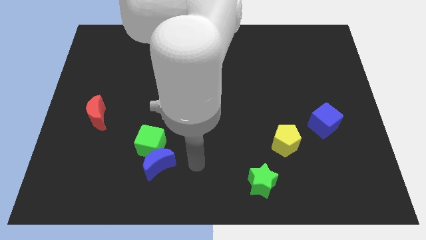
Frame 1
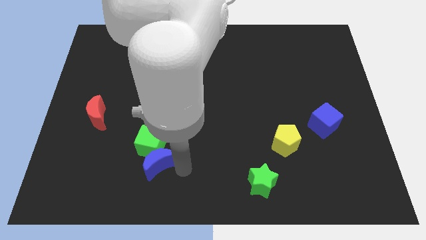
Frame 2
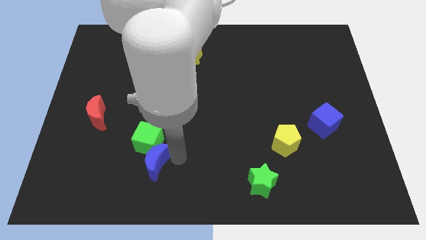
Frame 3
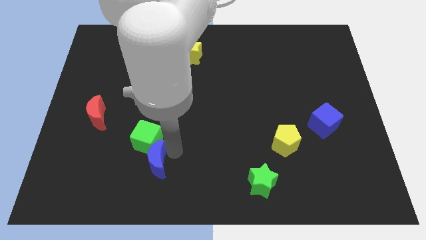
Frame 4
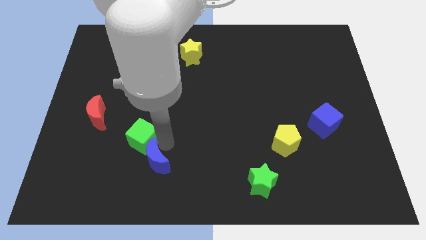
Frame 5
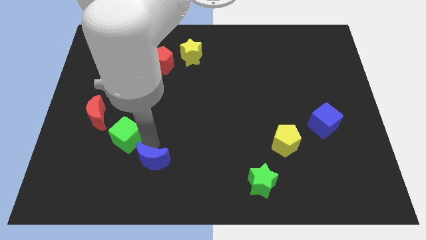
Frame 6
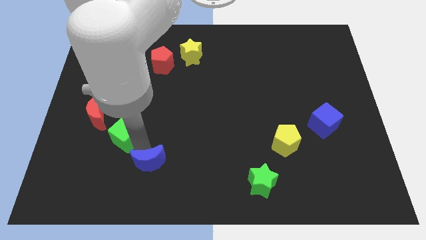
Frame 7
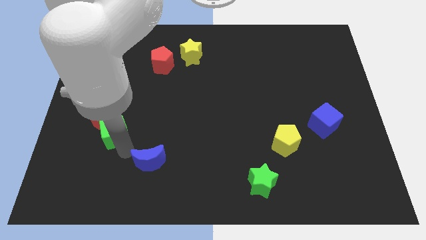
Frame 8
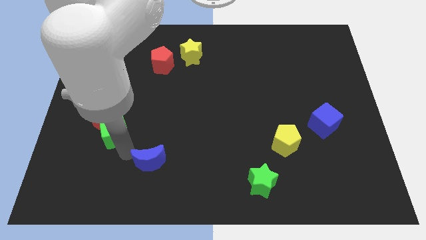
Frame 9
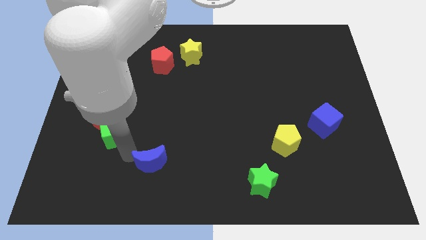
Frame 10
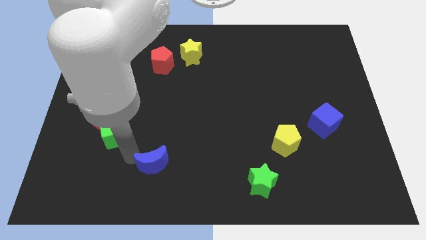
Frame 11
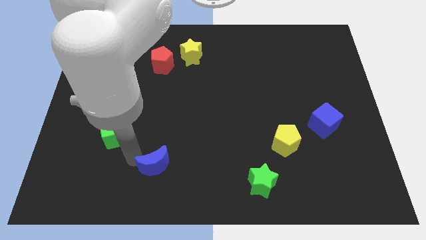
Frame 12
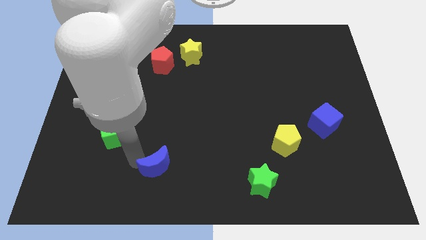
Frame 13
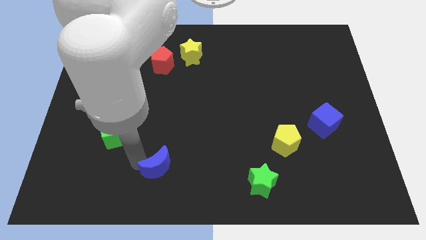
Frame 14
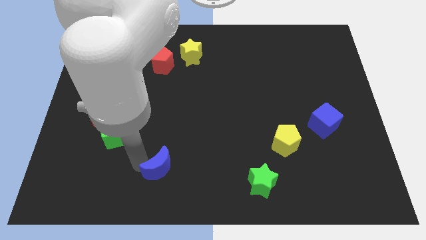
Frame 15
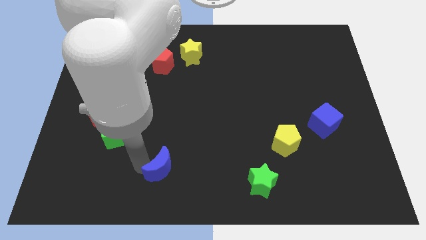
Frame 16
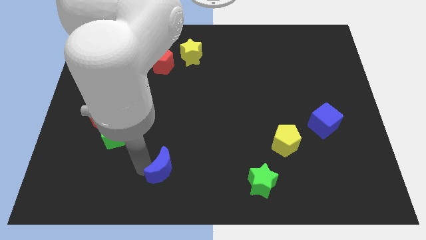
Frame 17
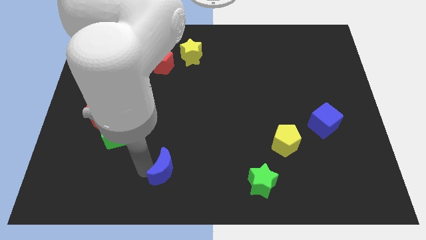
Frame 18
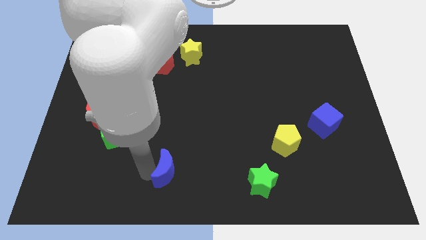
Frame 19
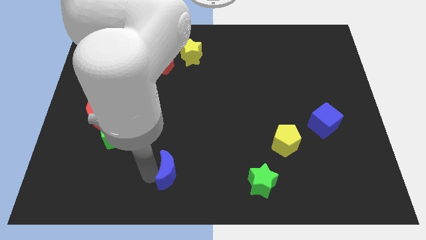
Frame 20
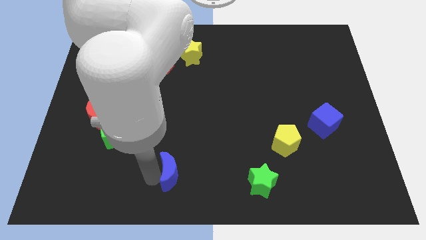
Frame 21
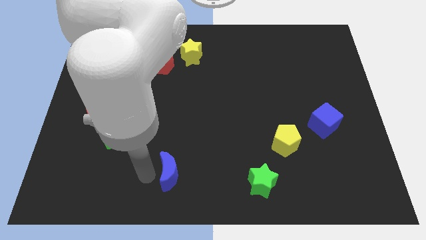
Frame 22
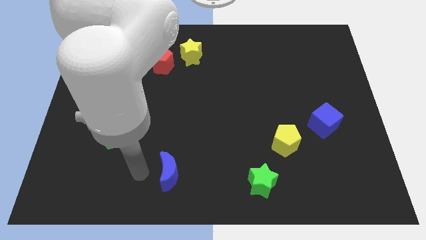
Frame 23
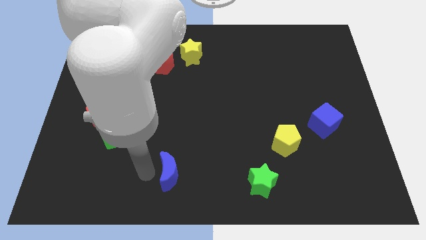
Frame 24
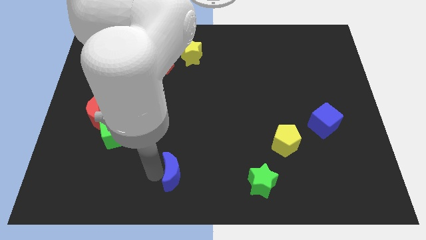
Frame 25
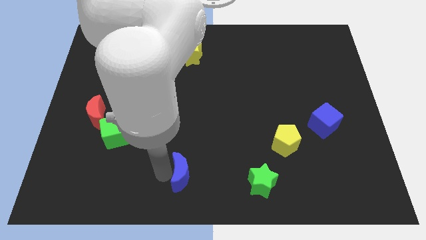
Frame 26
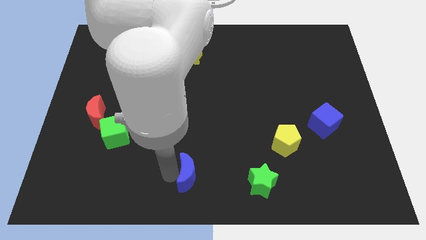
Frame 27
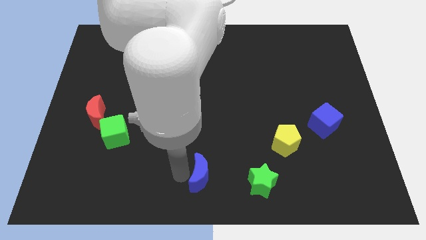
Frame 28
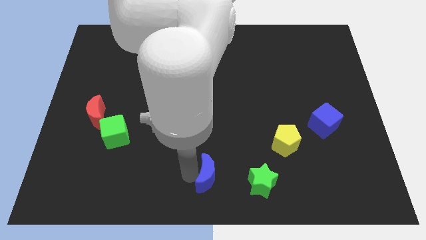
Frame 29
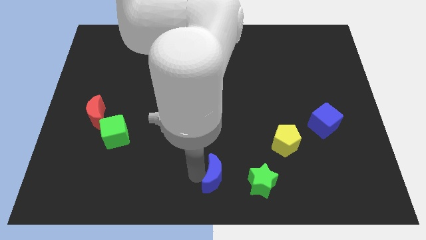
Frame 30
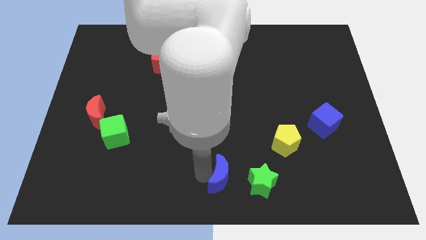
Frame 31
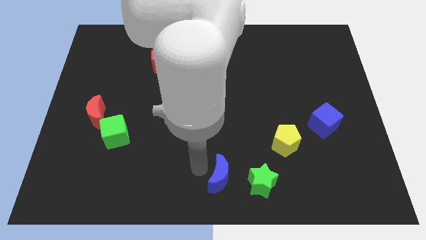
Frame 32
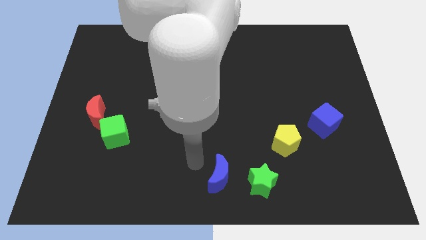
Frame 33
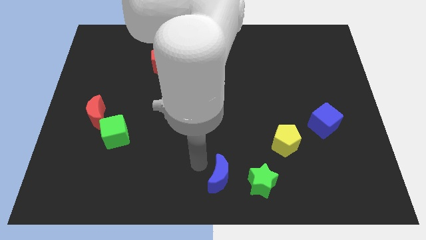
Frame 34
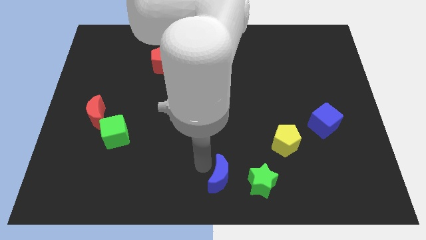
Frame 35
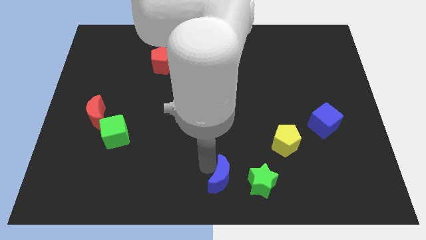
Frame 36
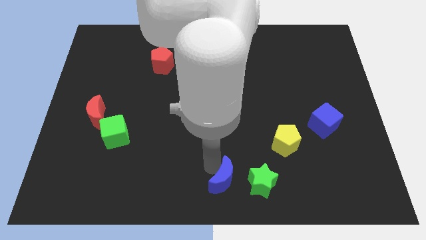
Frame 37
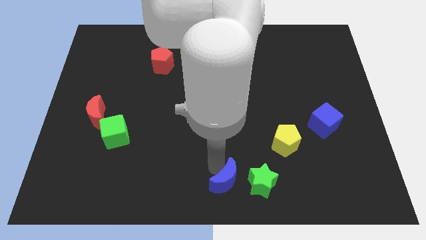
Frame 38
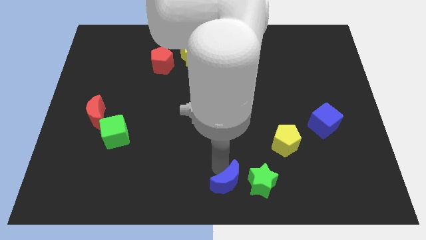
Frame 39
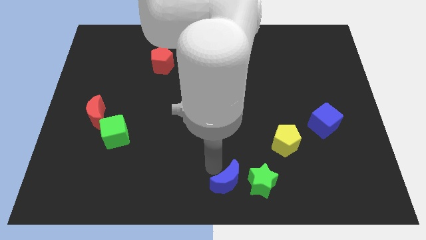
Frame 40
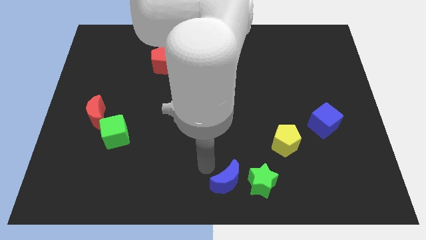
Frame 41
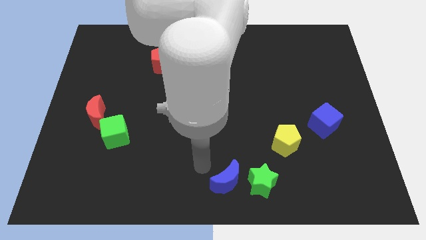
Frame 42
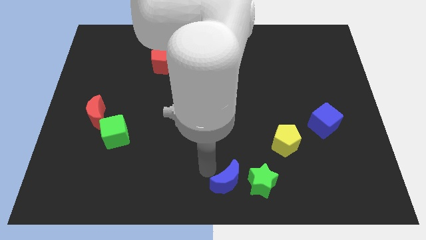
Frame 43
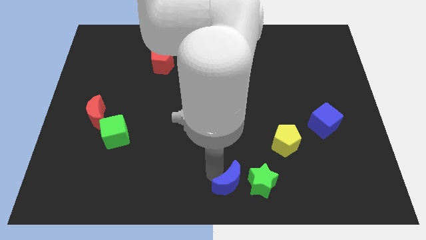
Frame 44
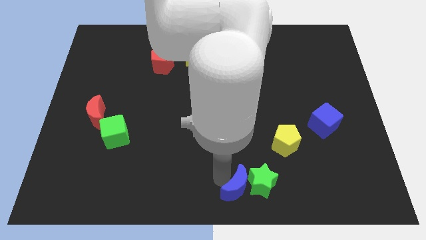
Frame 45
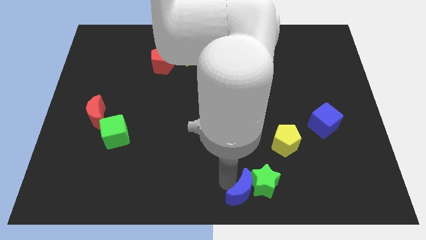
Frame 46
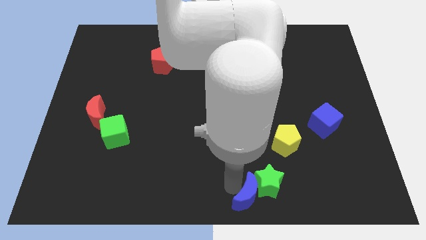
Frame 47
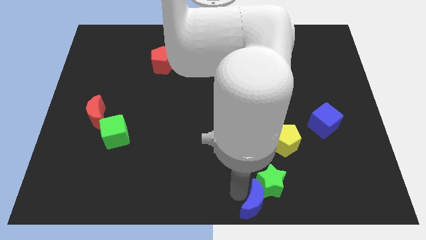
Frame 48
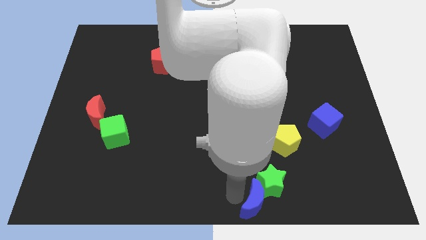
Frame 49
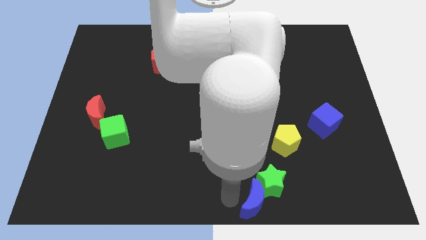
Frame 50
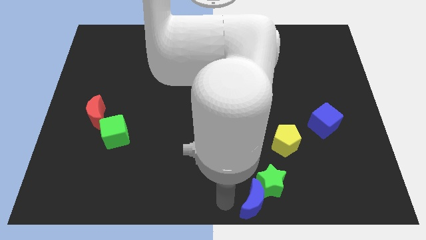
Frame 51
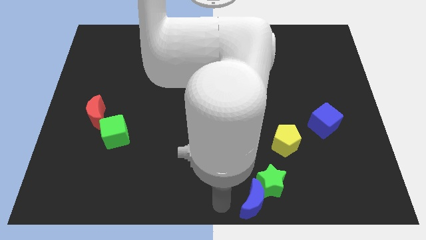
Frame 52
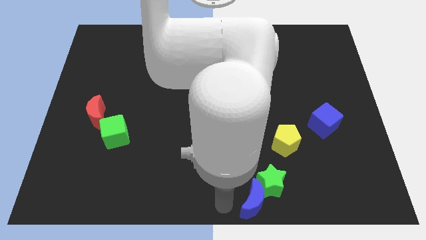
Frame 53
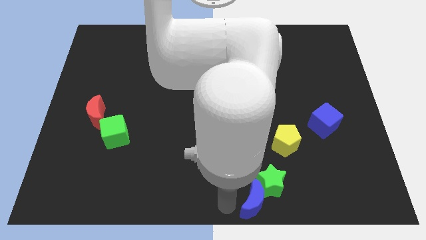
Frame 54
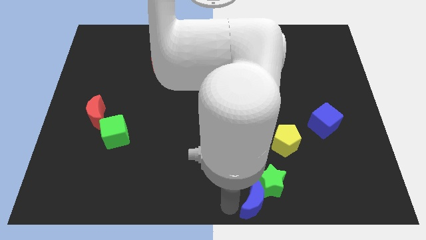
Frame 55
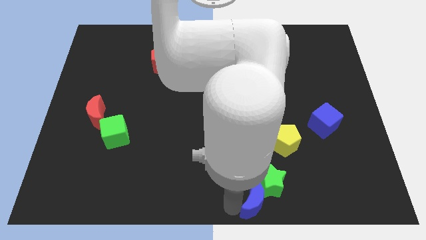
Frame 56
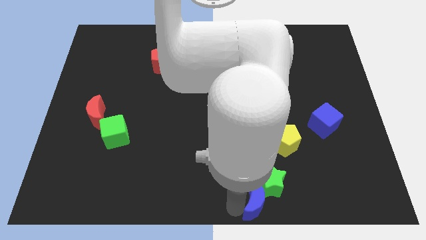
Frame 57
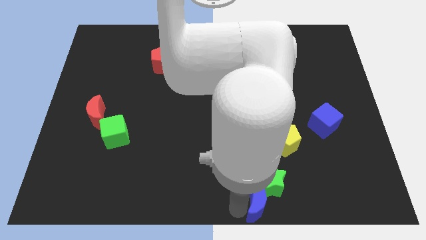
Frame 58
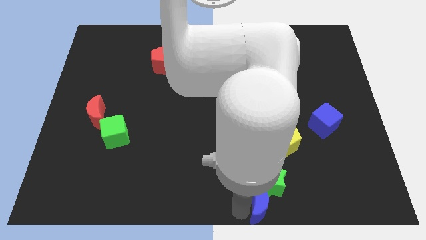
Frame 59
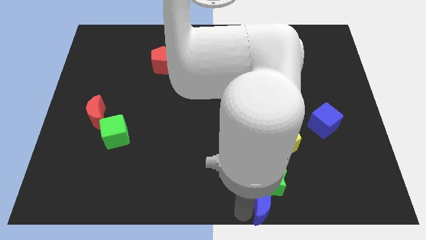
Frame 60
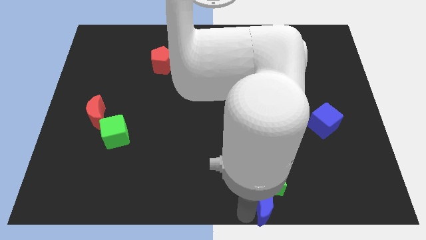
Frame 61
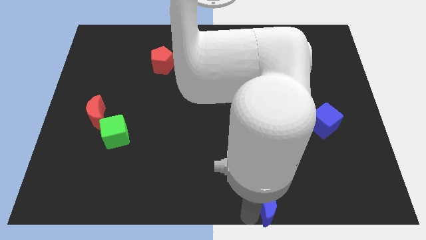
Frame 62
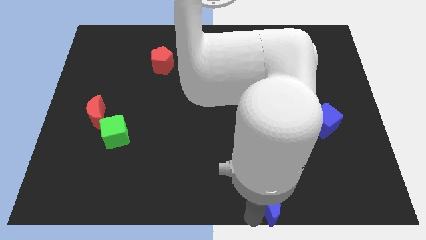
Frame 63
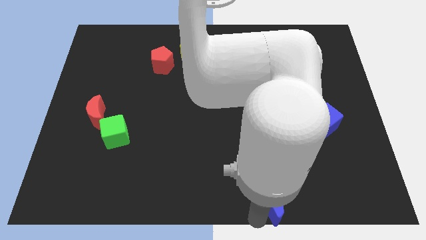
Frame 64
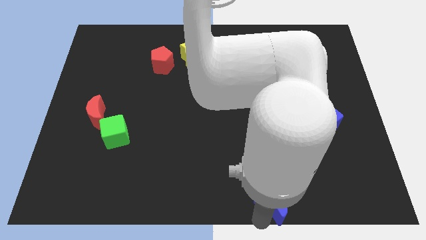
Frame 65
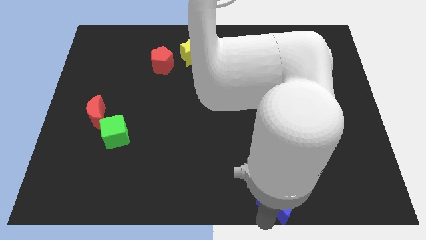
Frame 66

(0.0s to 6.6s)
move the blue moon to the right

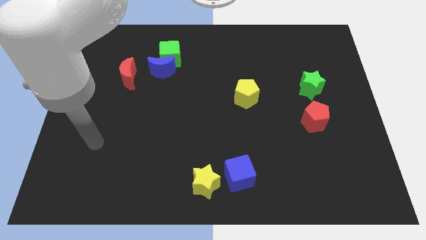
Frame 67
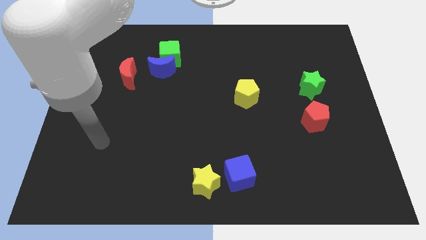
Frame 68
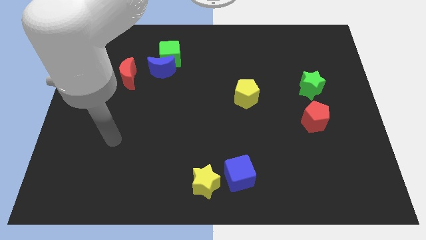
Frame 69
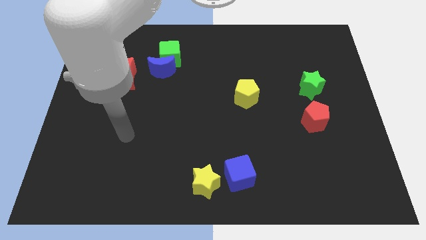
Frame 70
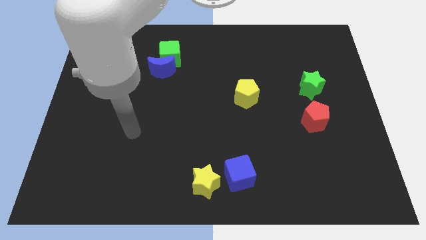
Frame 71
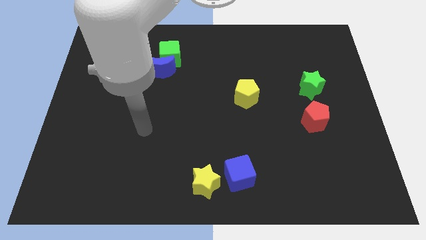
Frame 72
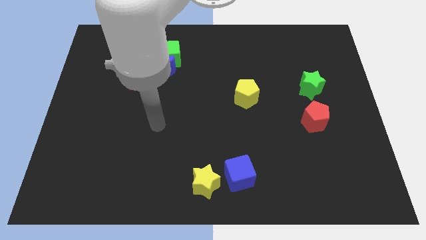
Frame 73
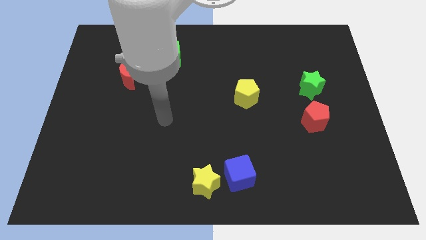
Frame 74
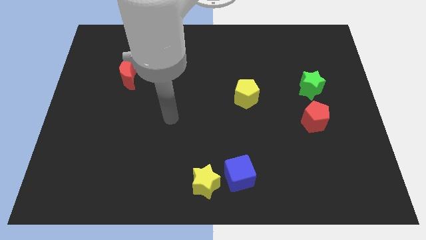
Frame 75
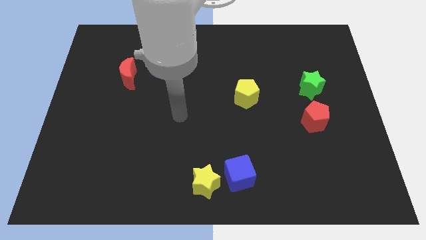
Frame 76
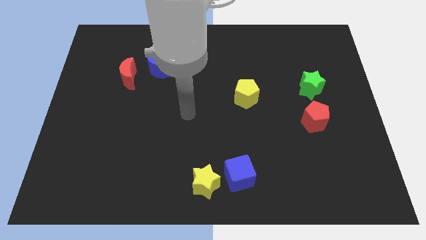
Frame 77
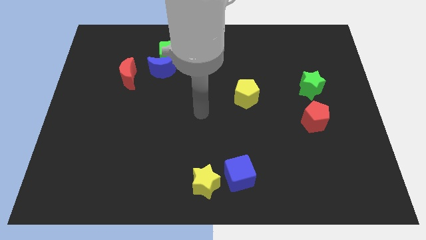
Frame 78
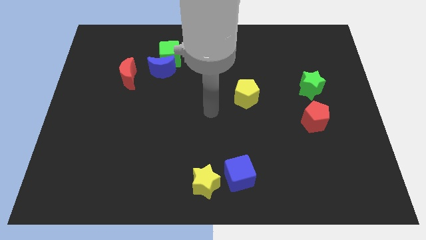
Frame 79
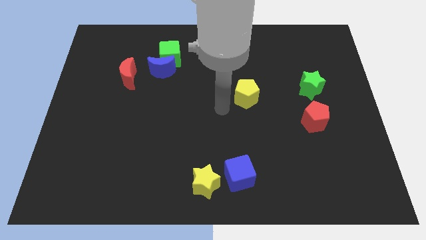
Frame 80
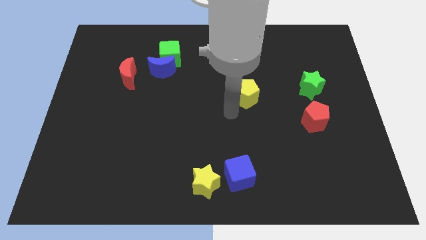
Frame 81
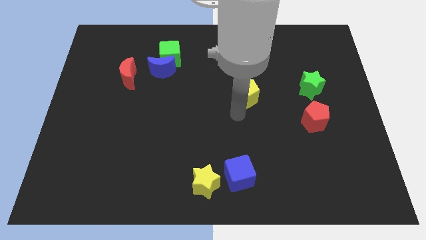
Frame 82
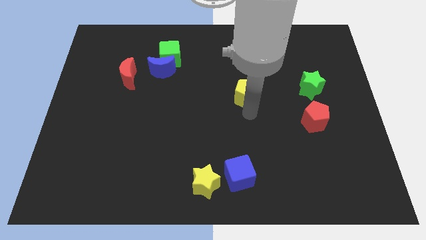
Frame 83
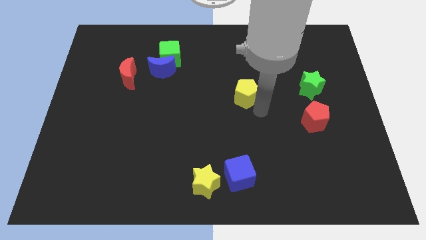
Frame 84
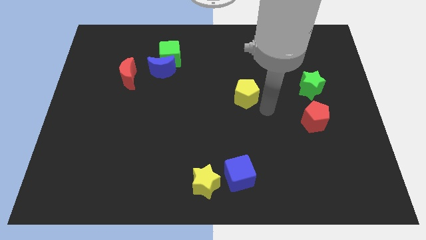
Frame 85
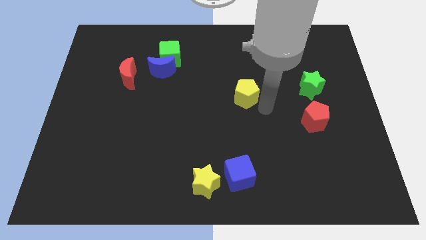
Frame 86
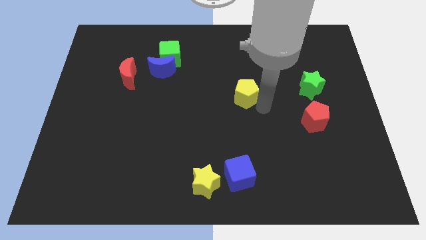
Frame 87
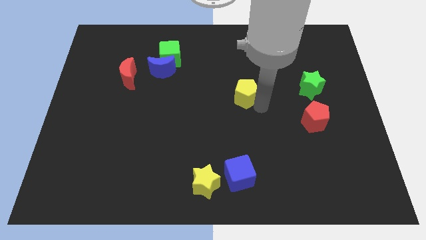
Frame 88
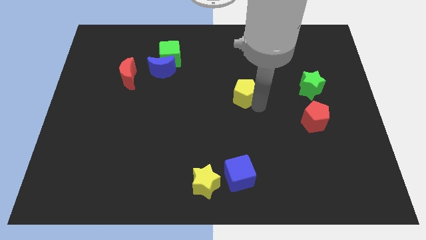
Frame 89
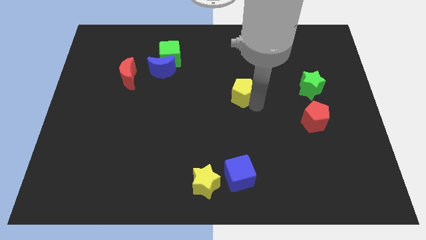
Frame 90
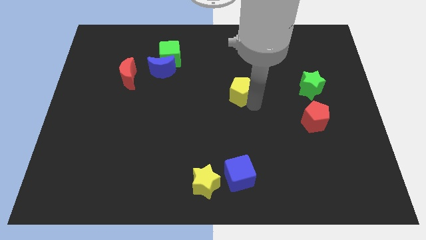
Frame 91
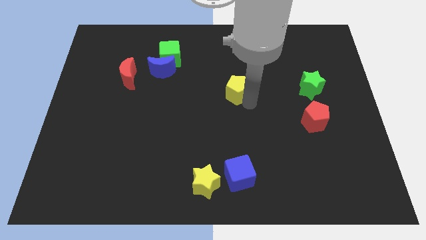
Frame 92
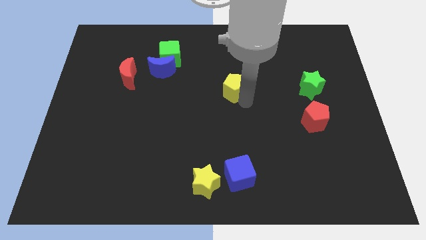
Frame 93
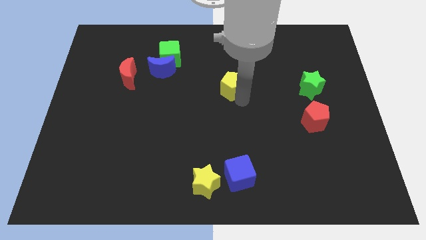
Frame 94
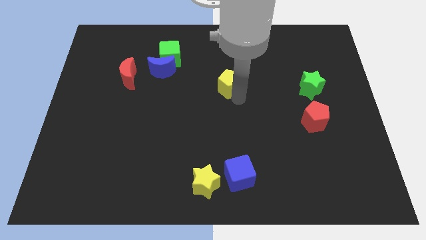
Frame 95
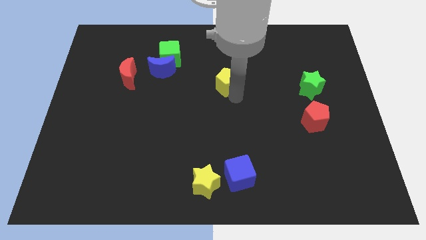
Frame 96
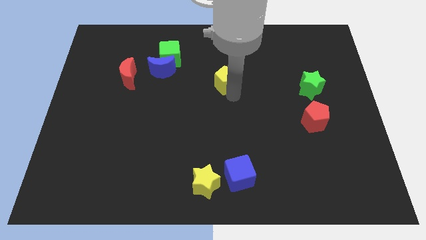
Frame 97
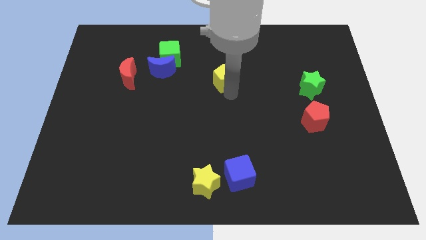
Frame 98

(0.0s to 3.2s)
slide the yellow pentagon a bit up and then left
